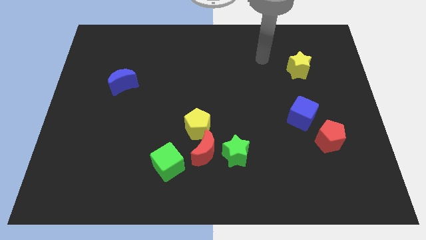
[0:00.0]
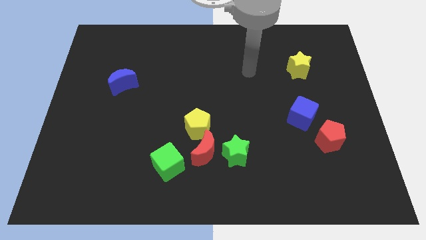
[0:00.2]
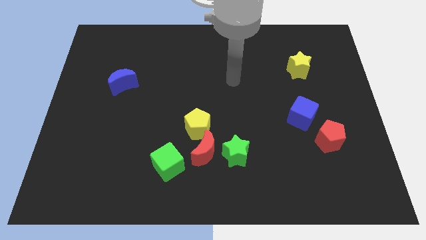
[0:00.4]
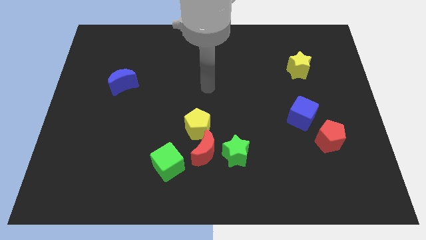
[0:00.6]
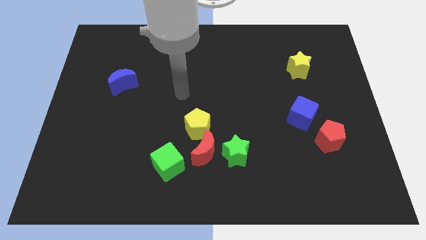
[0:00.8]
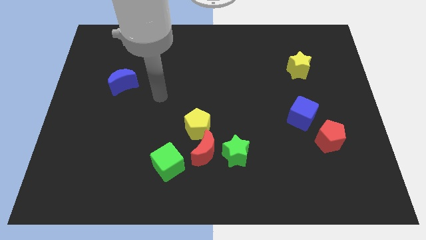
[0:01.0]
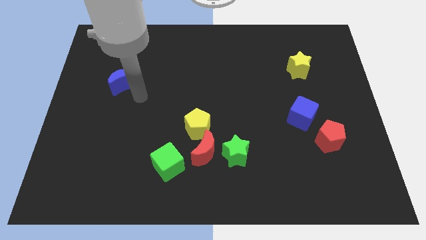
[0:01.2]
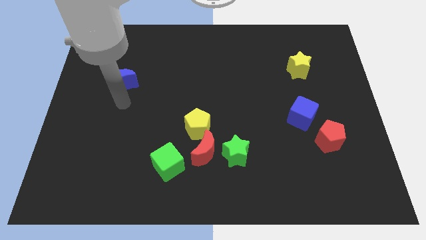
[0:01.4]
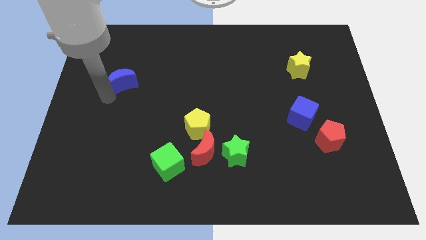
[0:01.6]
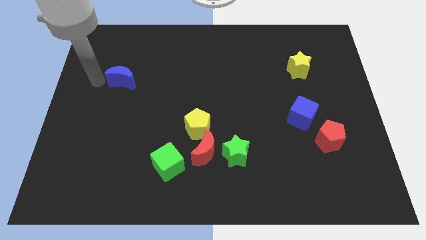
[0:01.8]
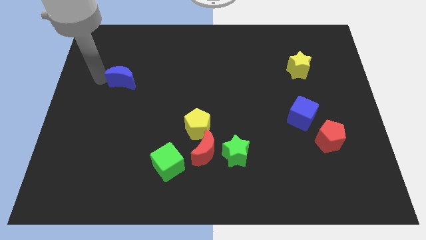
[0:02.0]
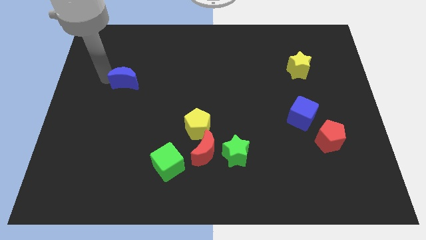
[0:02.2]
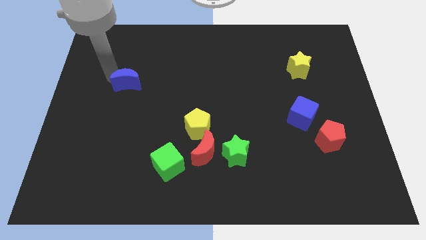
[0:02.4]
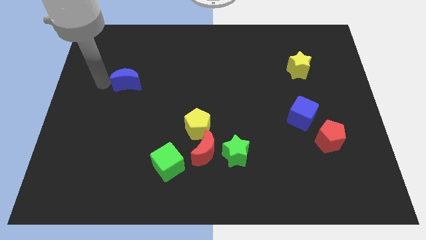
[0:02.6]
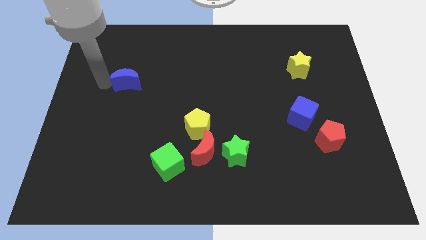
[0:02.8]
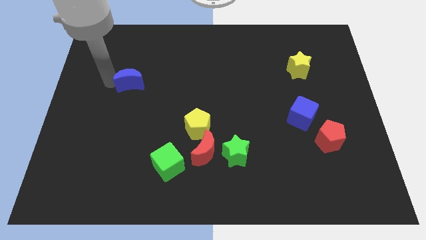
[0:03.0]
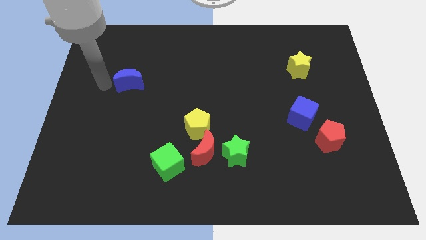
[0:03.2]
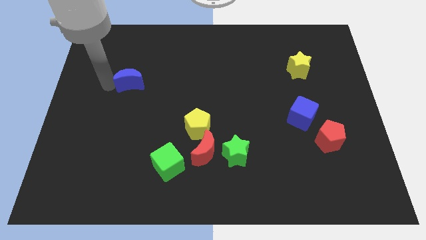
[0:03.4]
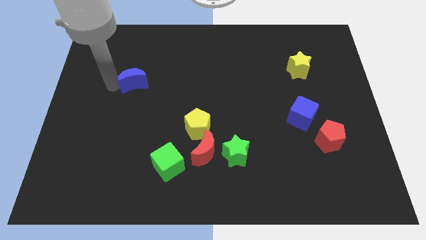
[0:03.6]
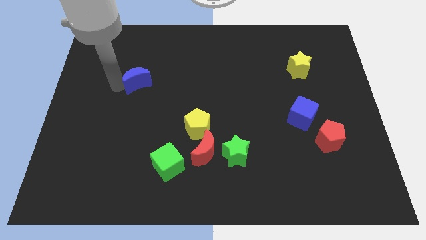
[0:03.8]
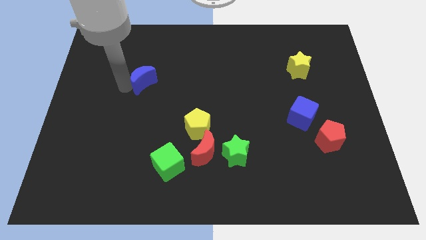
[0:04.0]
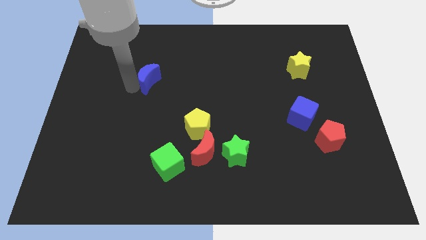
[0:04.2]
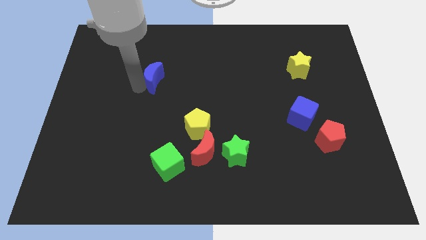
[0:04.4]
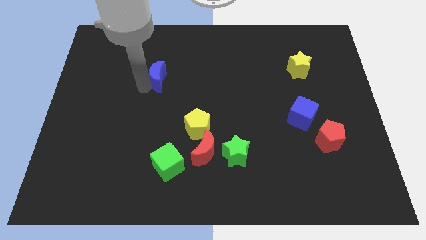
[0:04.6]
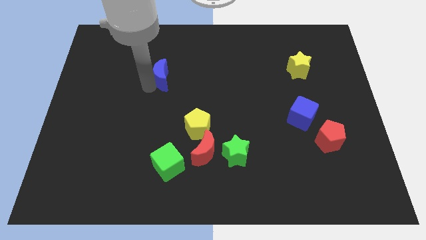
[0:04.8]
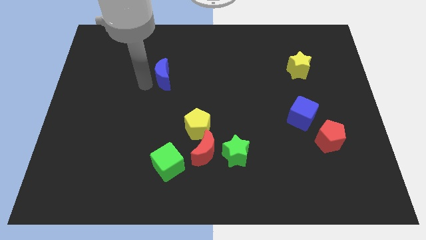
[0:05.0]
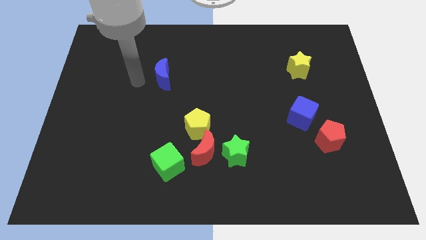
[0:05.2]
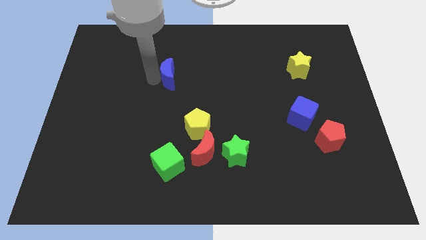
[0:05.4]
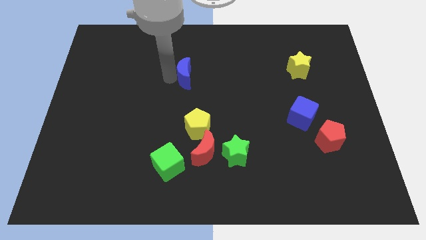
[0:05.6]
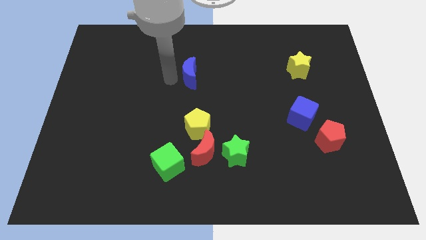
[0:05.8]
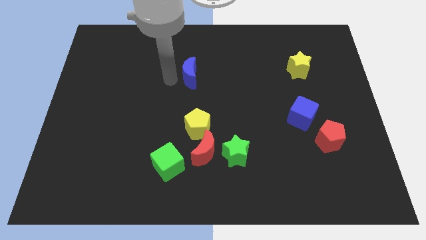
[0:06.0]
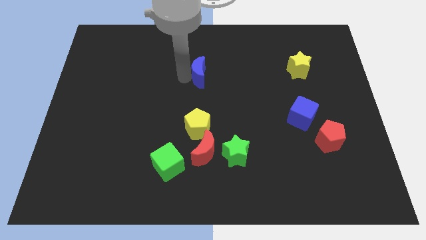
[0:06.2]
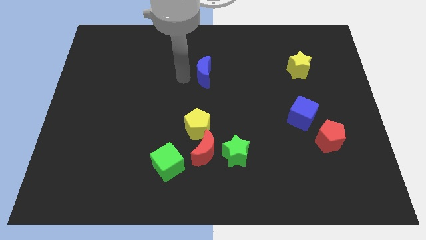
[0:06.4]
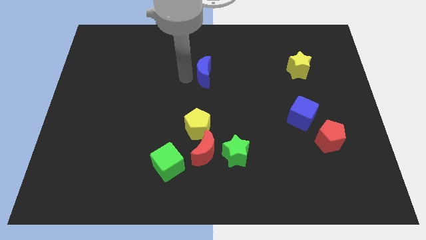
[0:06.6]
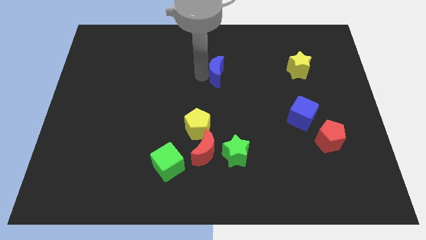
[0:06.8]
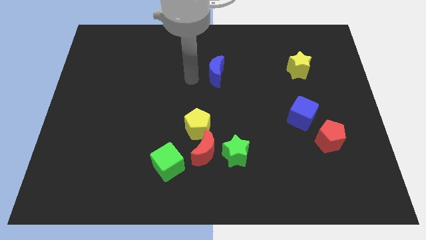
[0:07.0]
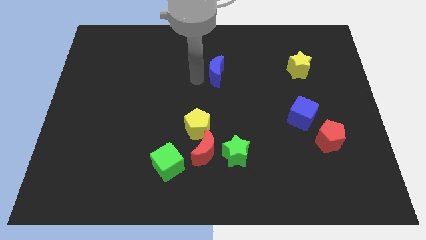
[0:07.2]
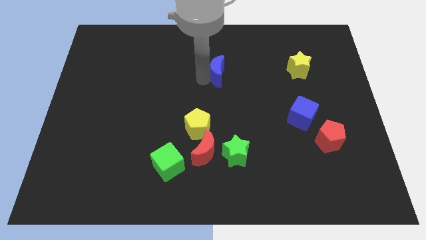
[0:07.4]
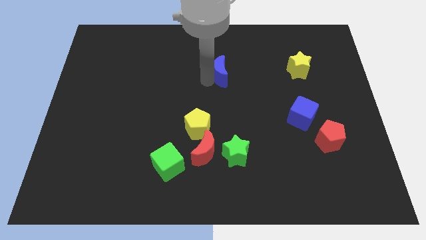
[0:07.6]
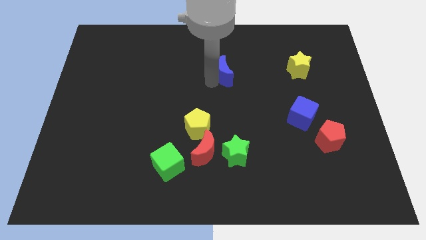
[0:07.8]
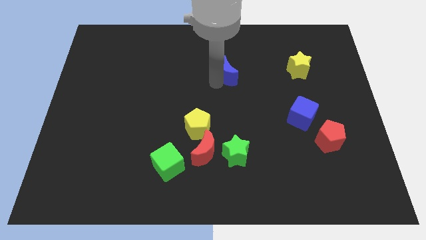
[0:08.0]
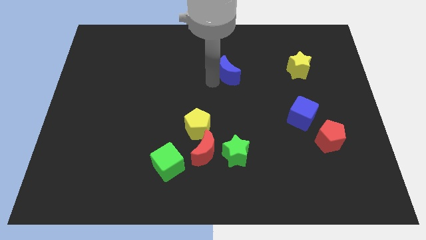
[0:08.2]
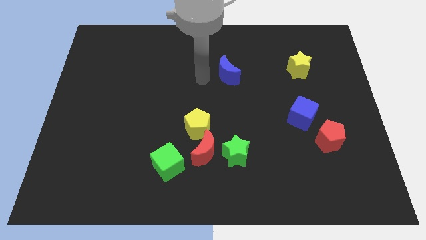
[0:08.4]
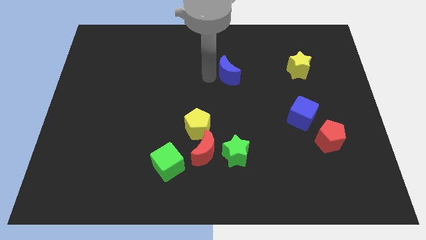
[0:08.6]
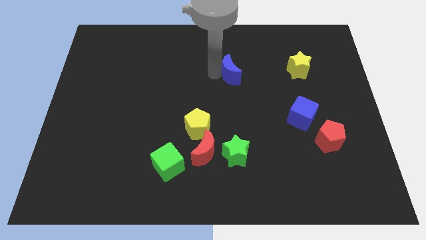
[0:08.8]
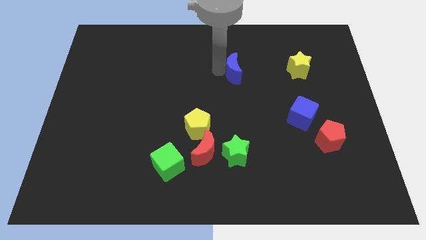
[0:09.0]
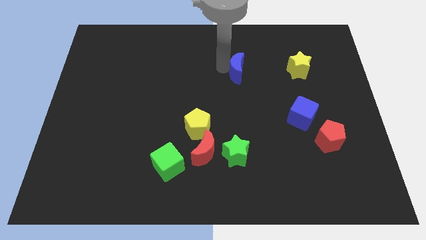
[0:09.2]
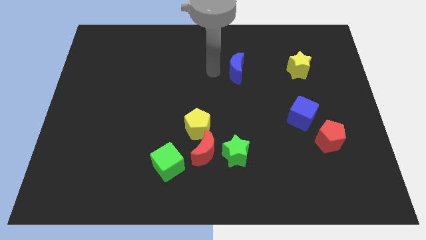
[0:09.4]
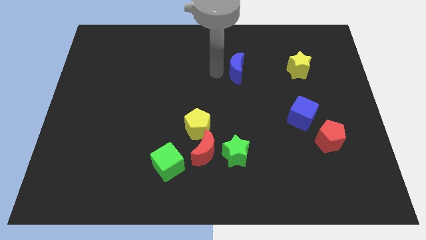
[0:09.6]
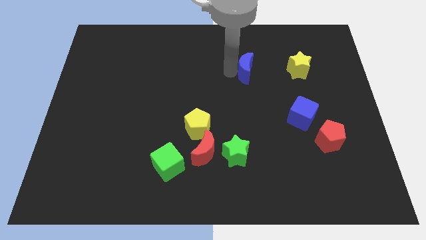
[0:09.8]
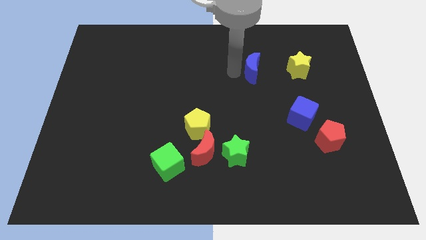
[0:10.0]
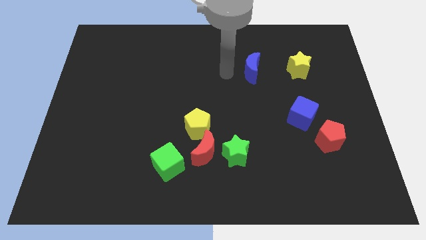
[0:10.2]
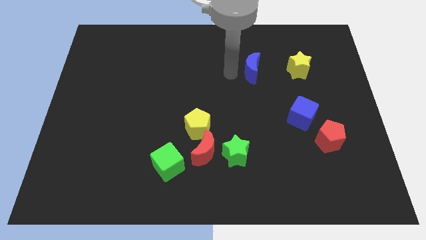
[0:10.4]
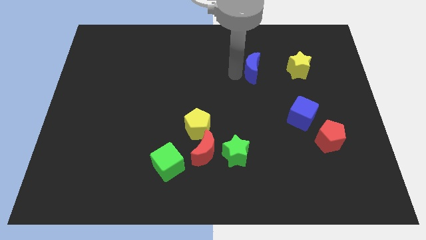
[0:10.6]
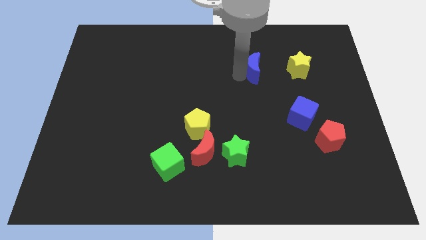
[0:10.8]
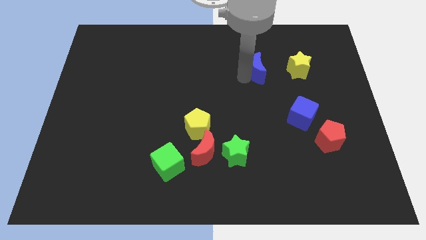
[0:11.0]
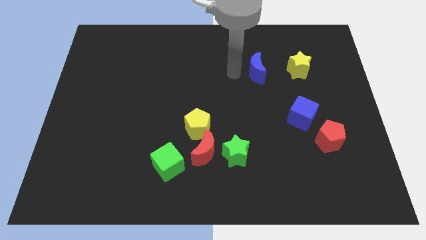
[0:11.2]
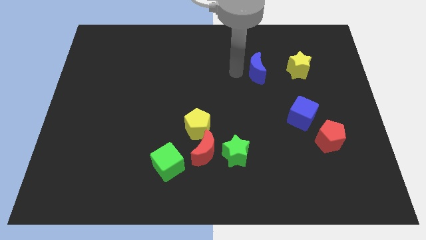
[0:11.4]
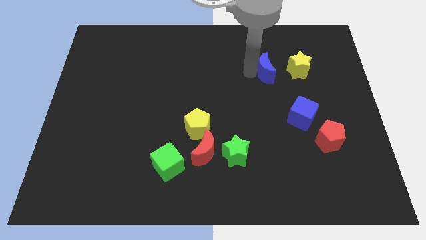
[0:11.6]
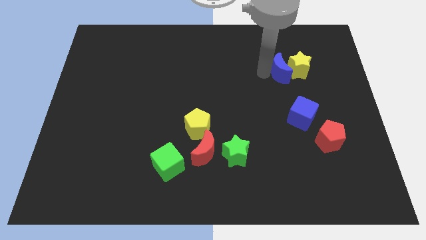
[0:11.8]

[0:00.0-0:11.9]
put the blue moon towards the yellow star
